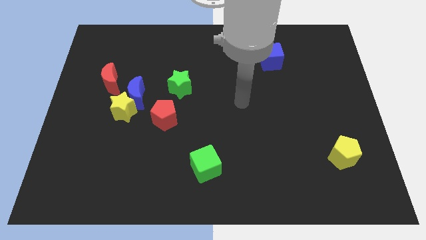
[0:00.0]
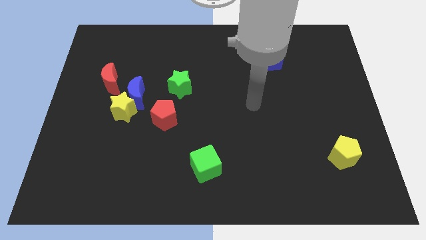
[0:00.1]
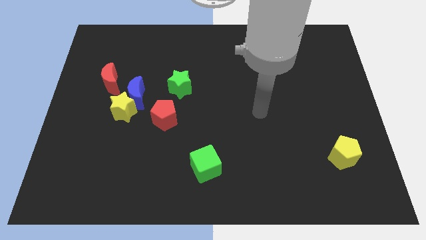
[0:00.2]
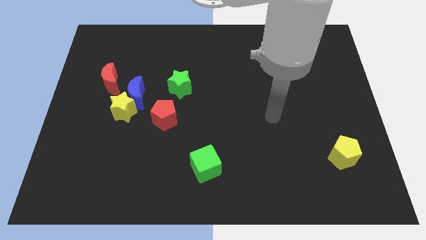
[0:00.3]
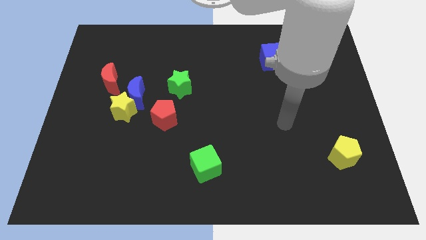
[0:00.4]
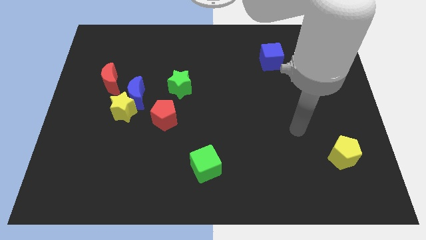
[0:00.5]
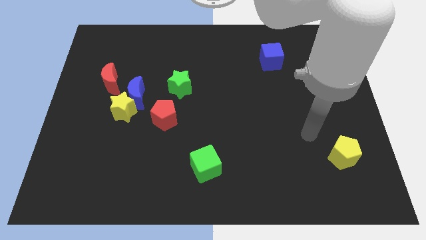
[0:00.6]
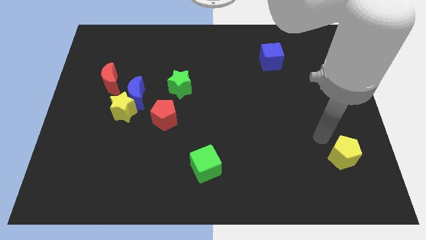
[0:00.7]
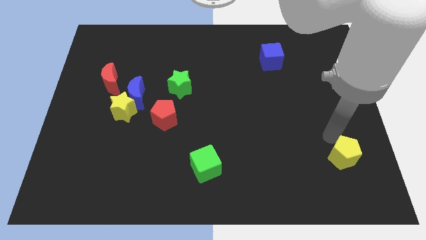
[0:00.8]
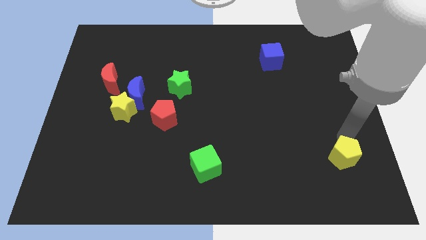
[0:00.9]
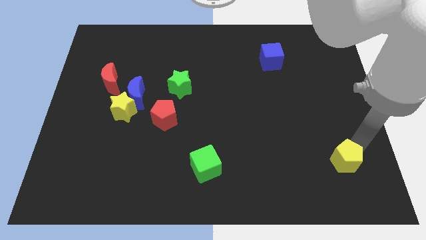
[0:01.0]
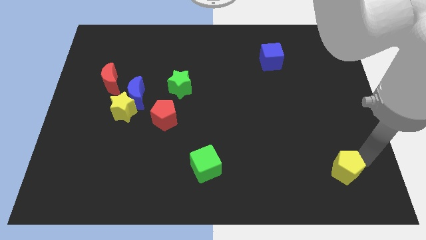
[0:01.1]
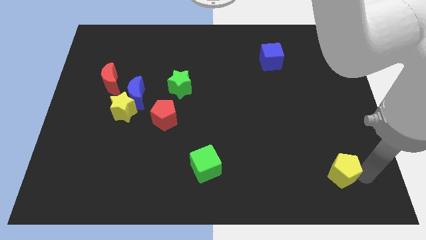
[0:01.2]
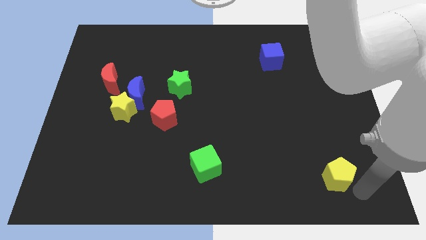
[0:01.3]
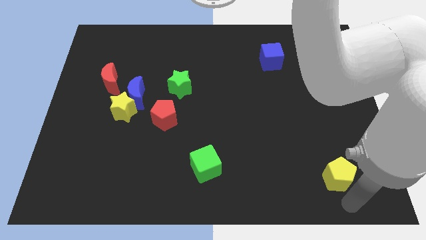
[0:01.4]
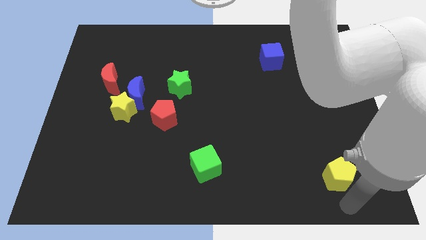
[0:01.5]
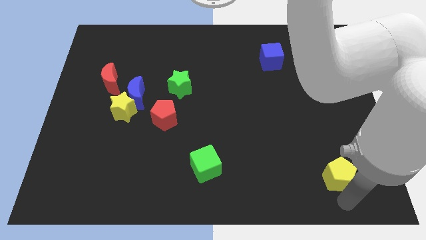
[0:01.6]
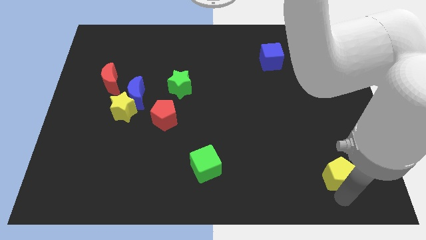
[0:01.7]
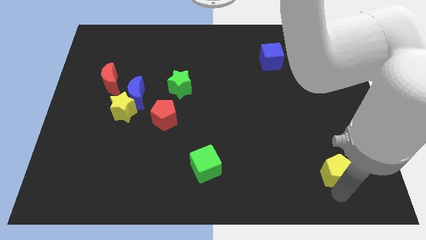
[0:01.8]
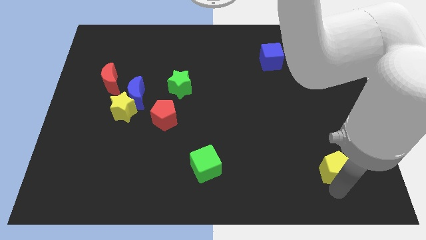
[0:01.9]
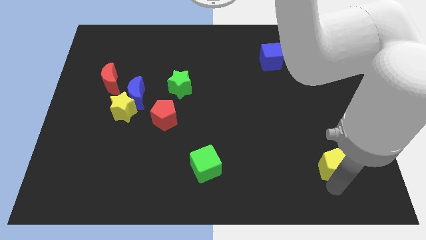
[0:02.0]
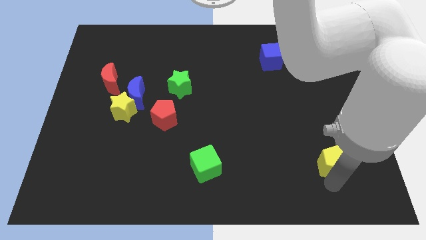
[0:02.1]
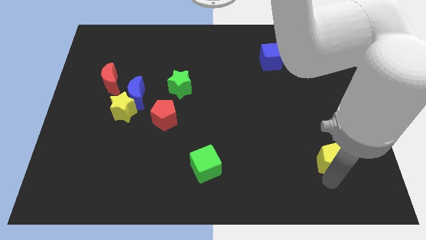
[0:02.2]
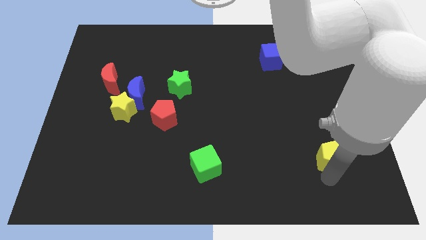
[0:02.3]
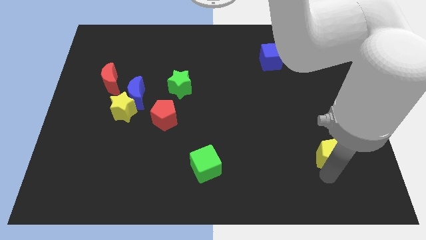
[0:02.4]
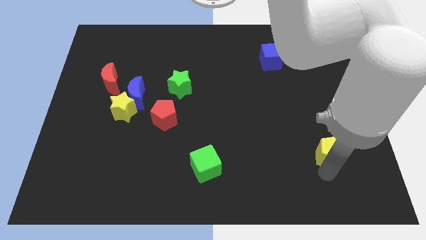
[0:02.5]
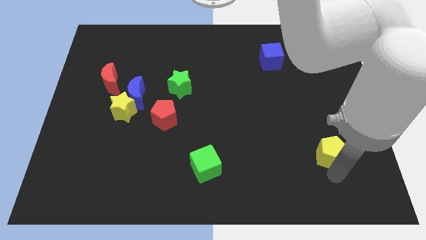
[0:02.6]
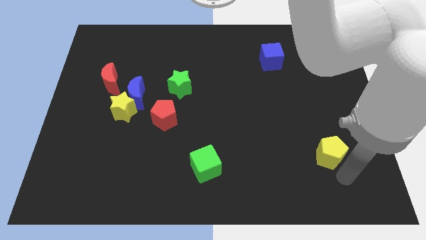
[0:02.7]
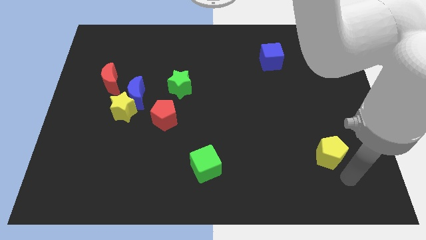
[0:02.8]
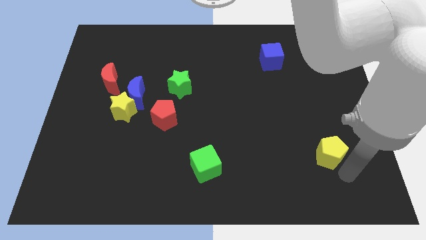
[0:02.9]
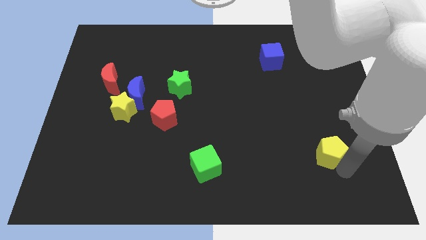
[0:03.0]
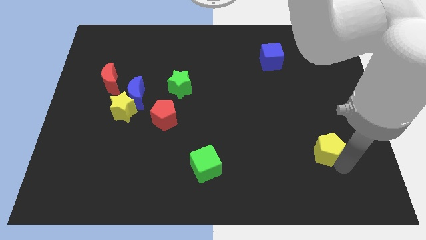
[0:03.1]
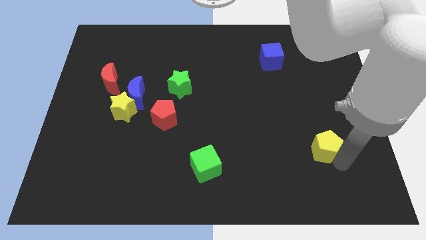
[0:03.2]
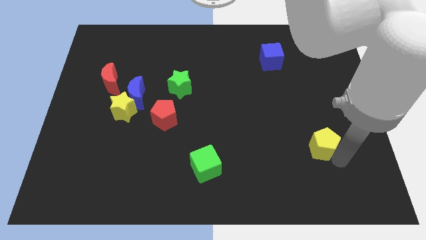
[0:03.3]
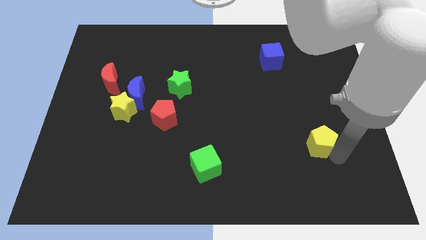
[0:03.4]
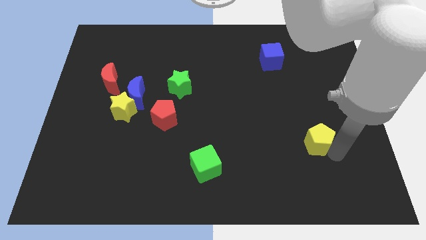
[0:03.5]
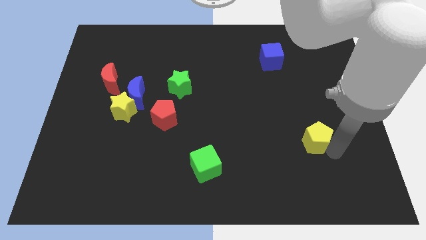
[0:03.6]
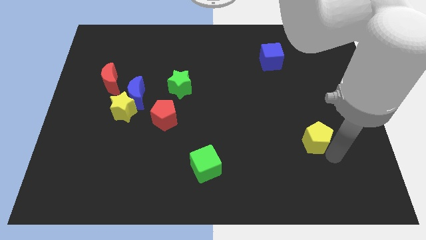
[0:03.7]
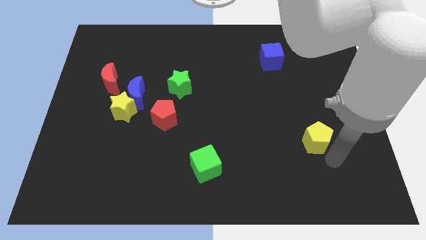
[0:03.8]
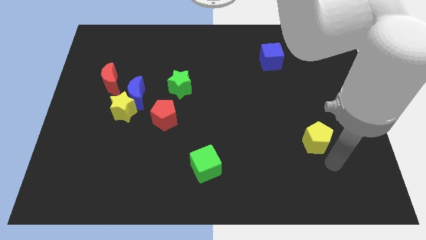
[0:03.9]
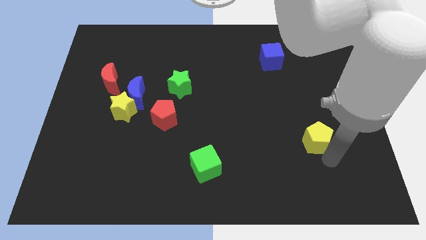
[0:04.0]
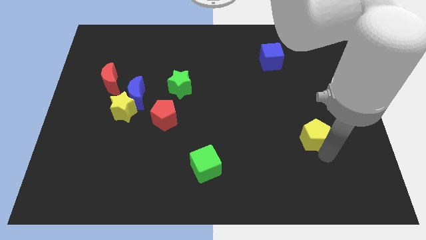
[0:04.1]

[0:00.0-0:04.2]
slightly slide the yellow pentagon up and to the left

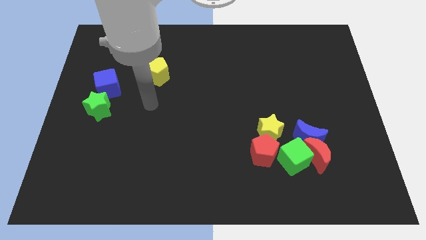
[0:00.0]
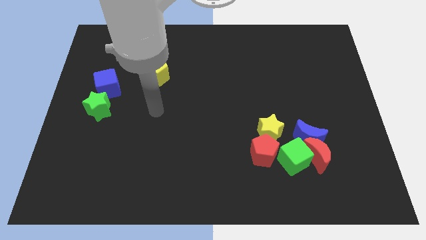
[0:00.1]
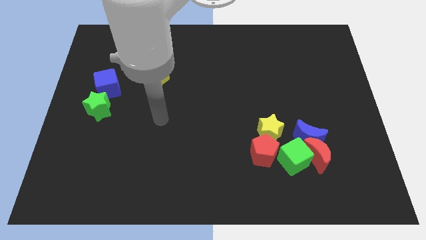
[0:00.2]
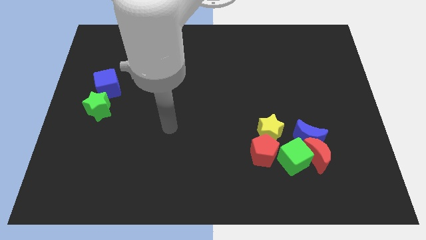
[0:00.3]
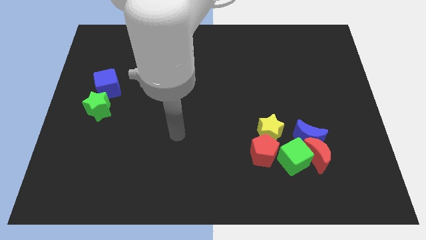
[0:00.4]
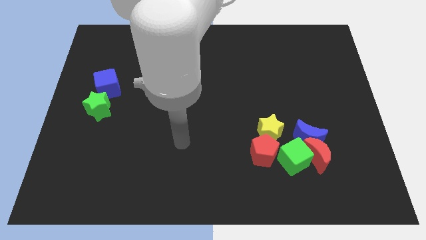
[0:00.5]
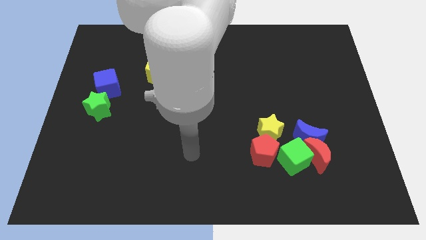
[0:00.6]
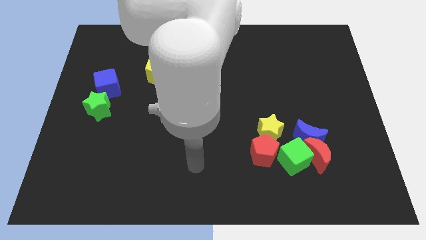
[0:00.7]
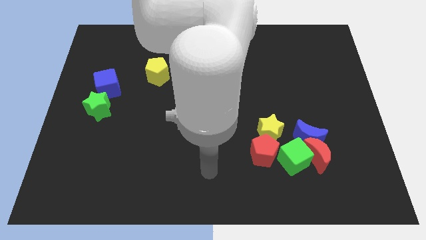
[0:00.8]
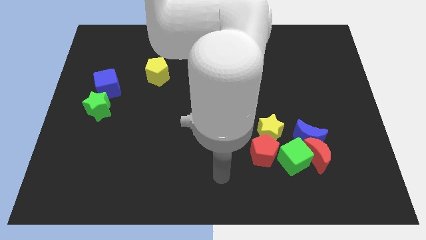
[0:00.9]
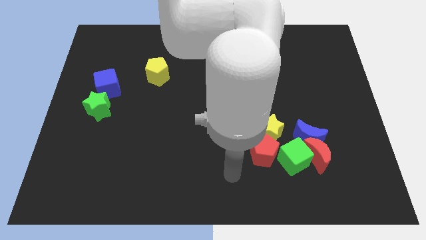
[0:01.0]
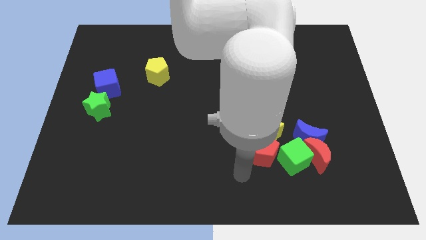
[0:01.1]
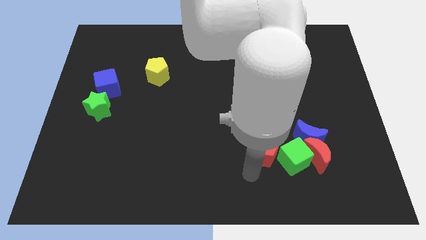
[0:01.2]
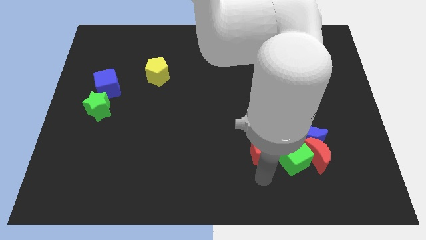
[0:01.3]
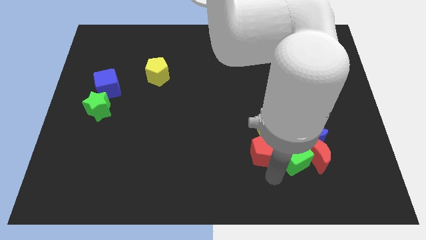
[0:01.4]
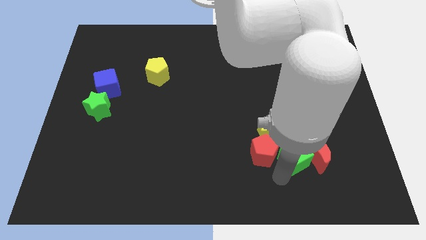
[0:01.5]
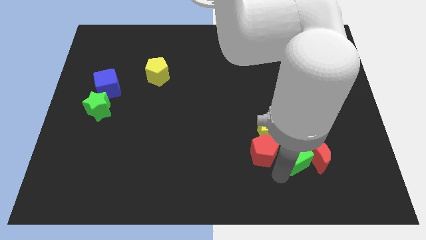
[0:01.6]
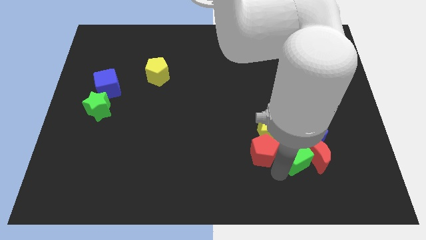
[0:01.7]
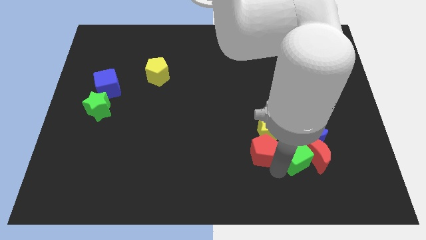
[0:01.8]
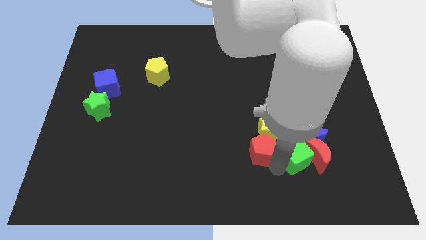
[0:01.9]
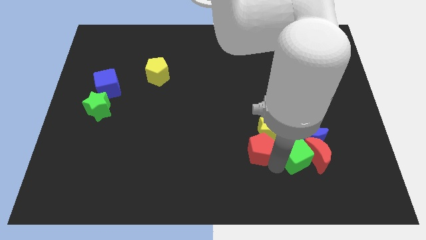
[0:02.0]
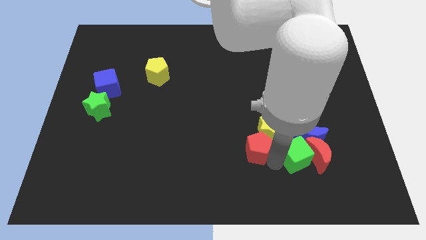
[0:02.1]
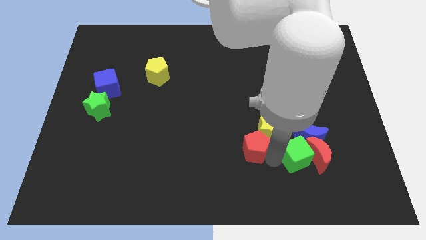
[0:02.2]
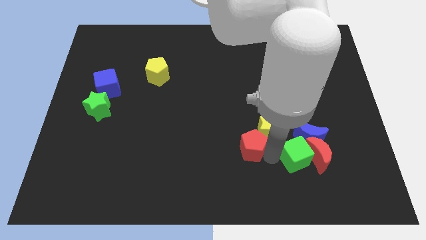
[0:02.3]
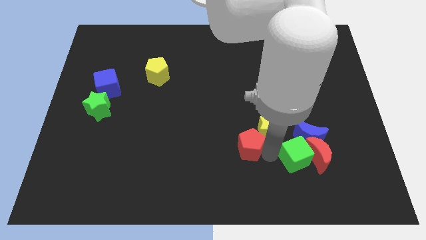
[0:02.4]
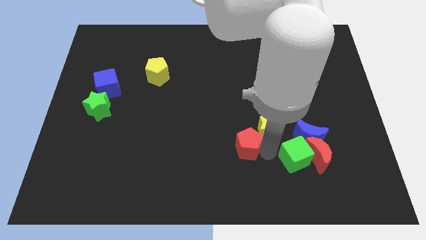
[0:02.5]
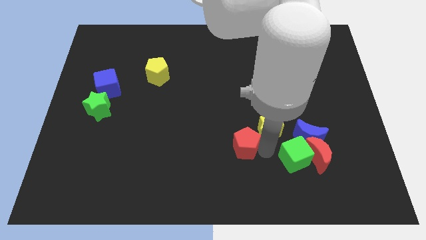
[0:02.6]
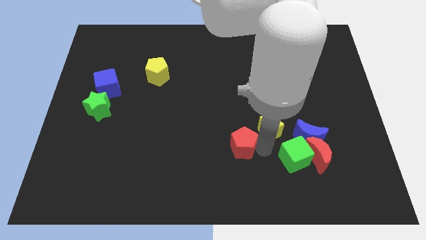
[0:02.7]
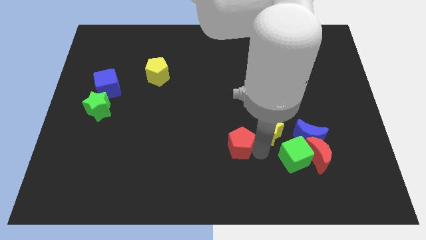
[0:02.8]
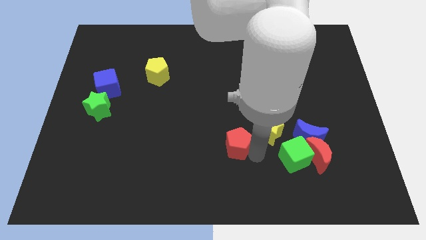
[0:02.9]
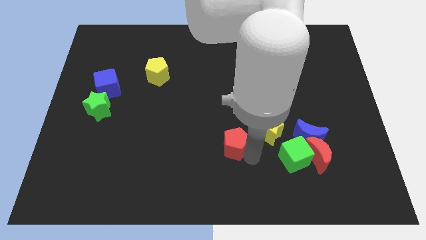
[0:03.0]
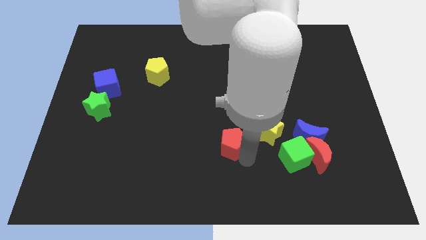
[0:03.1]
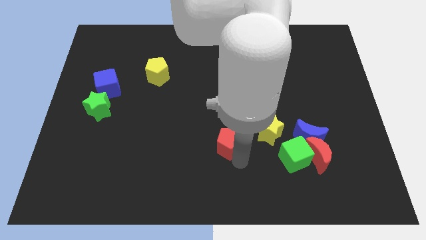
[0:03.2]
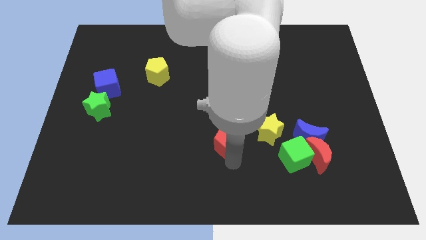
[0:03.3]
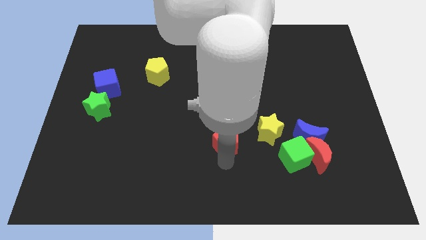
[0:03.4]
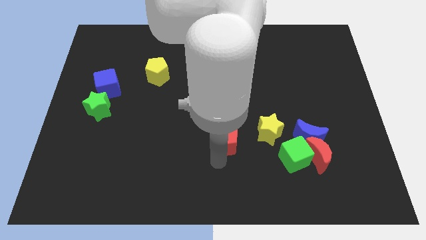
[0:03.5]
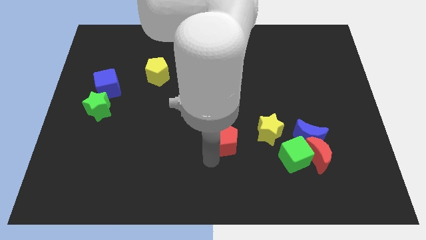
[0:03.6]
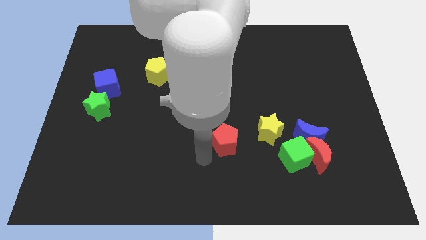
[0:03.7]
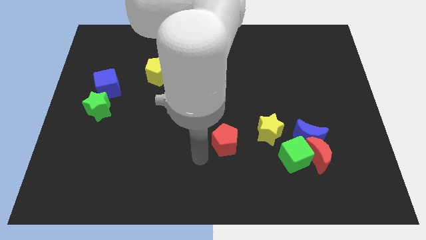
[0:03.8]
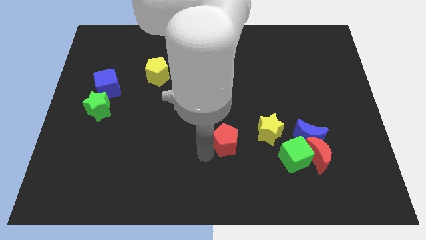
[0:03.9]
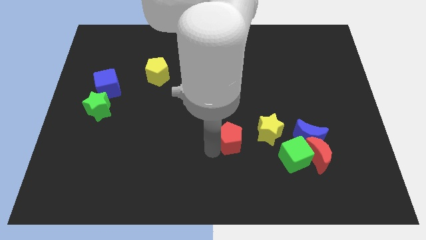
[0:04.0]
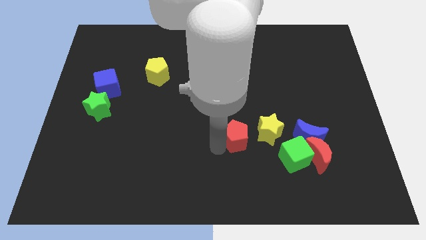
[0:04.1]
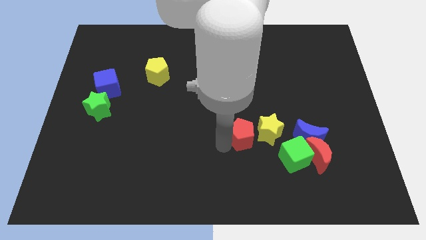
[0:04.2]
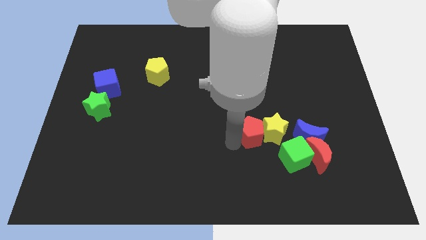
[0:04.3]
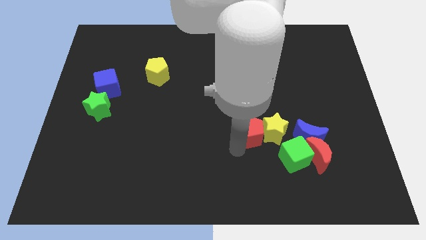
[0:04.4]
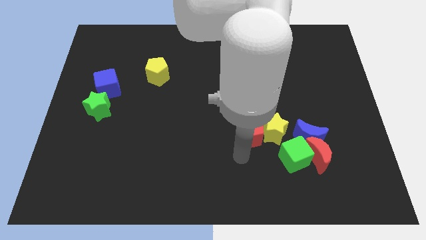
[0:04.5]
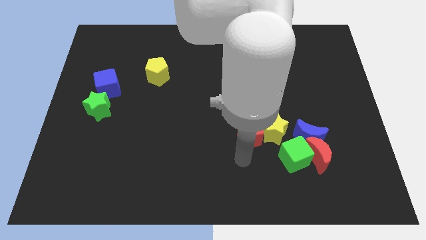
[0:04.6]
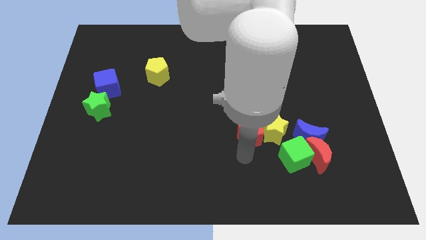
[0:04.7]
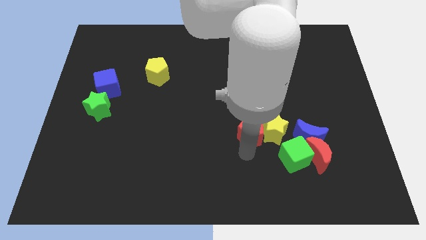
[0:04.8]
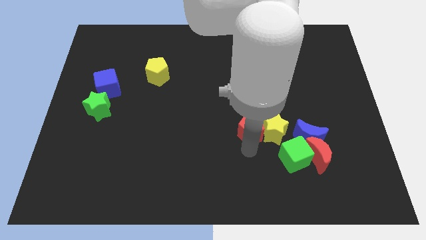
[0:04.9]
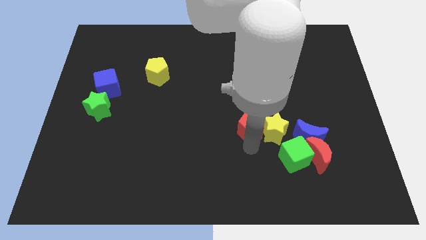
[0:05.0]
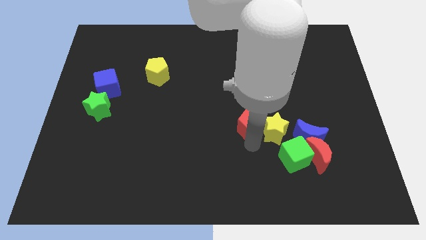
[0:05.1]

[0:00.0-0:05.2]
move the red pentagon a little bit up
